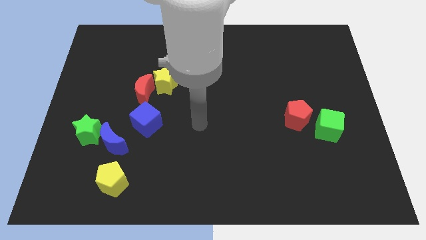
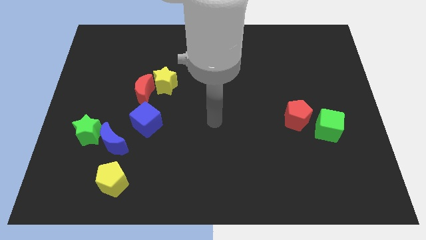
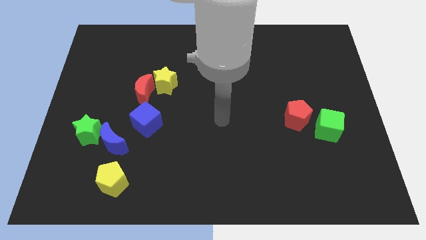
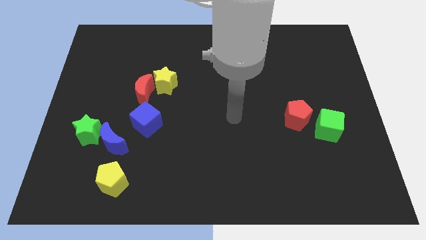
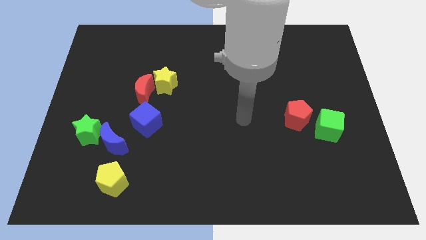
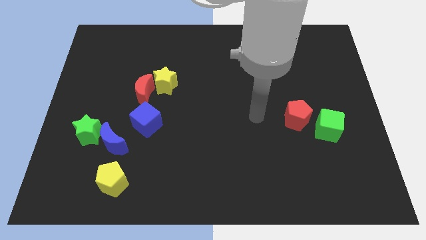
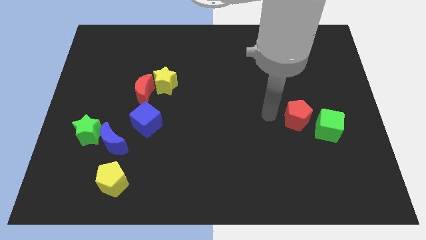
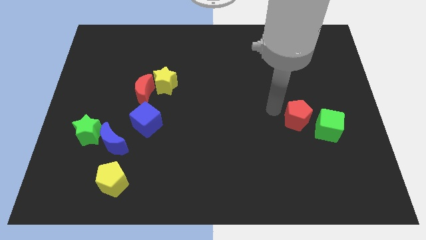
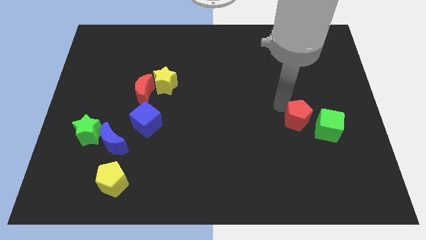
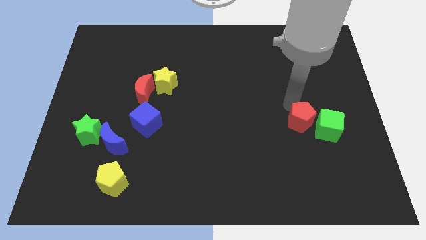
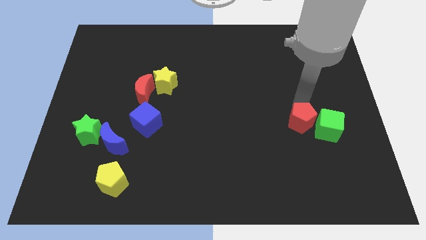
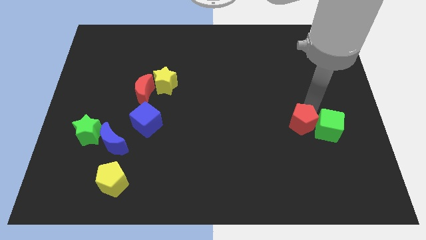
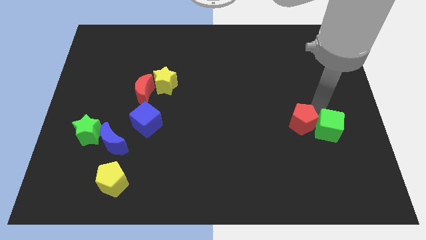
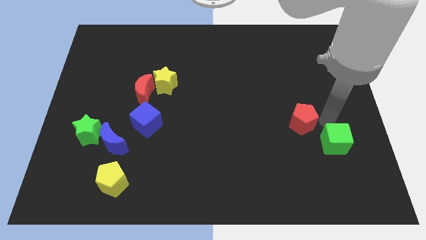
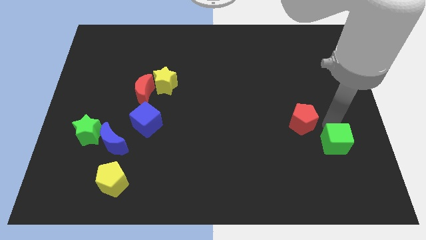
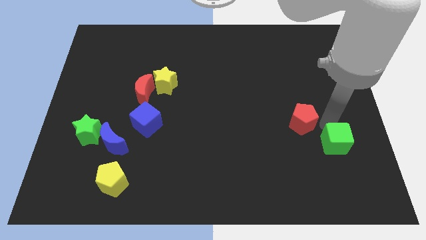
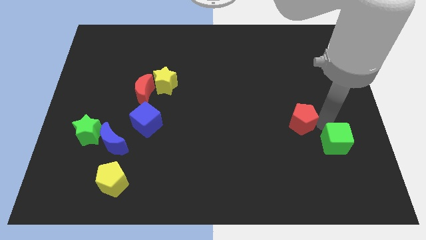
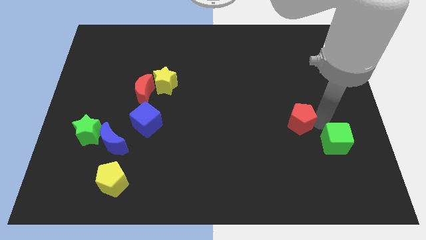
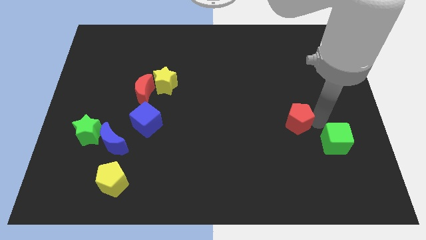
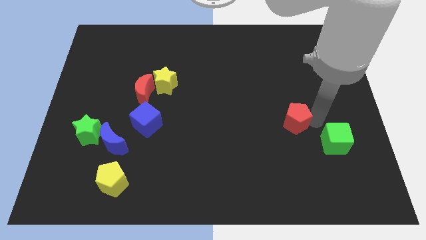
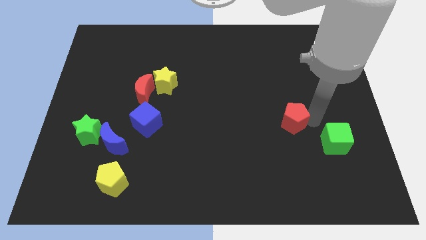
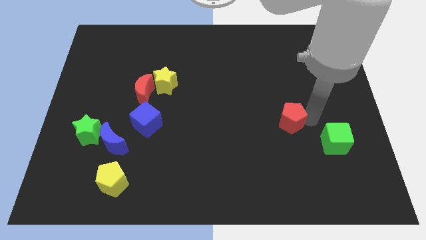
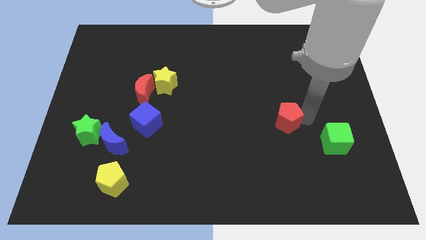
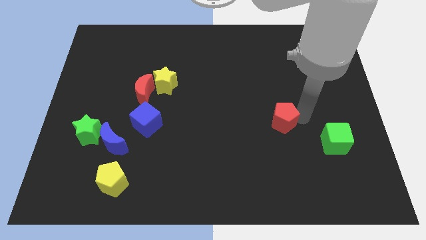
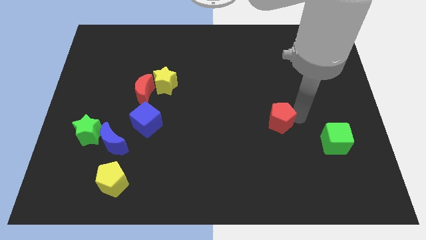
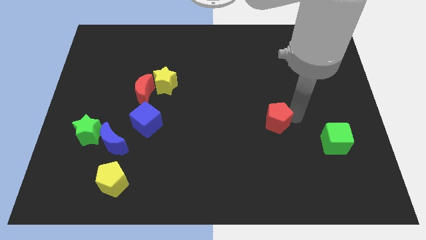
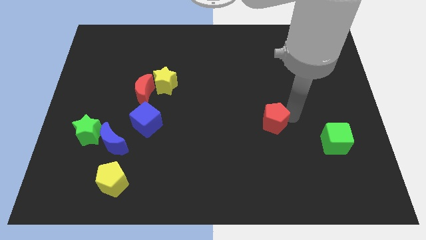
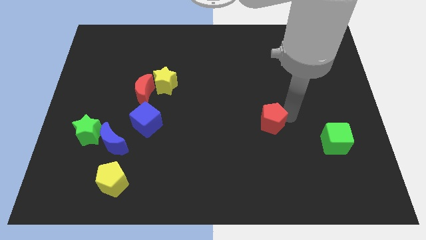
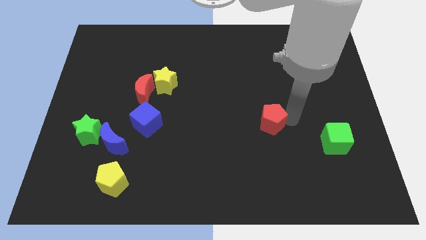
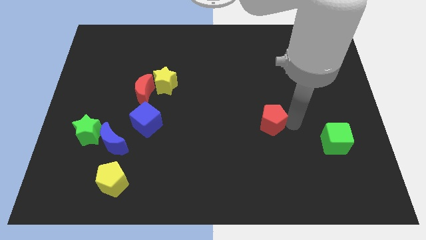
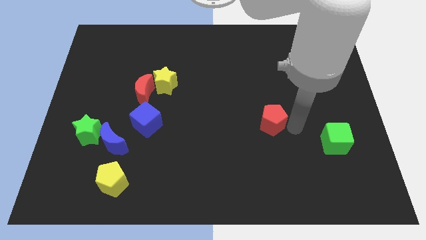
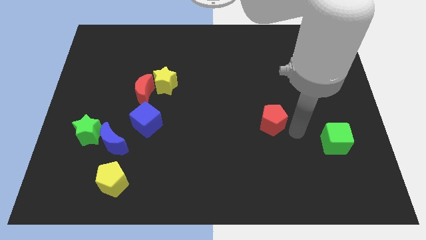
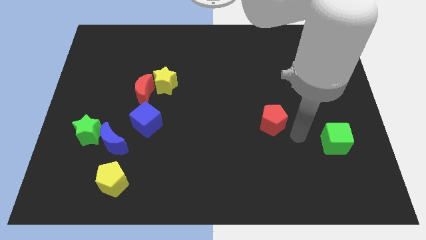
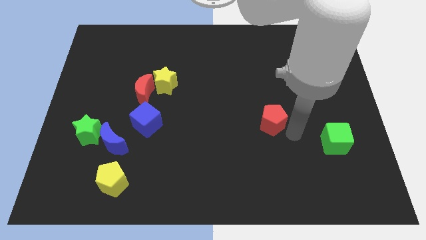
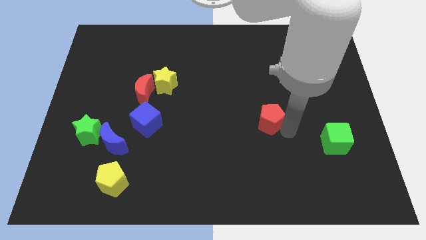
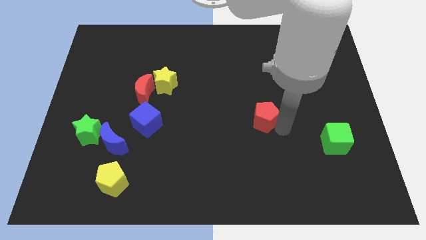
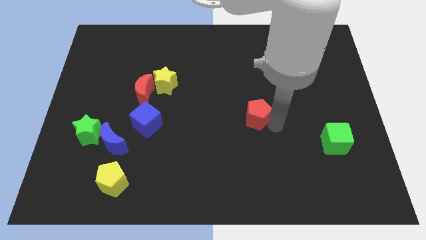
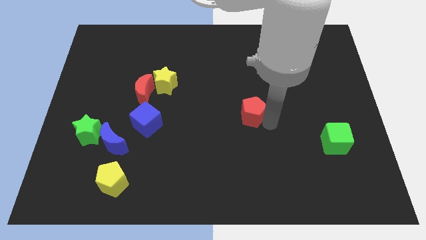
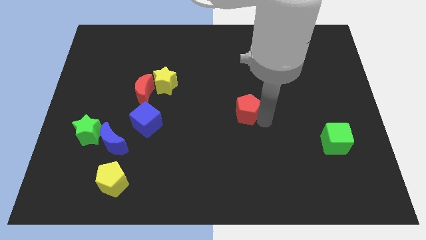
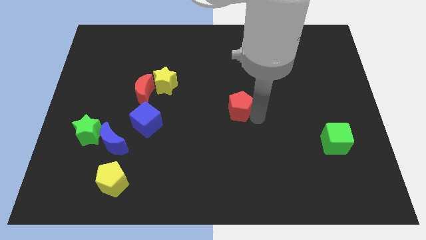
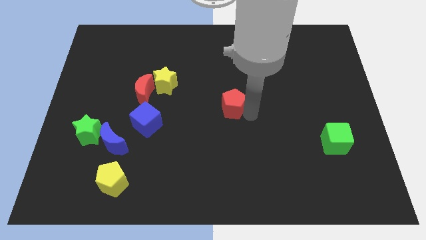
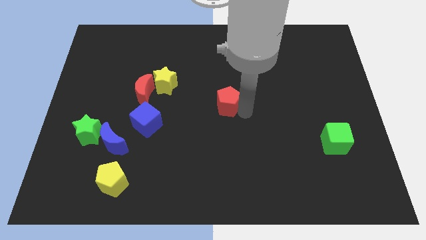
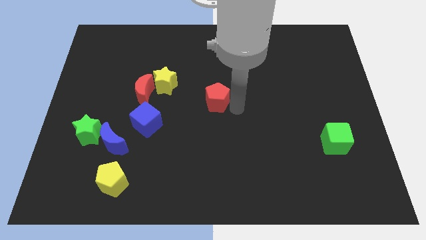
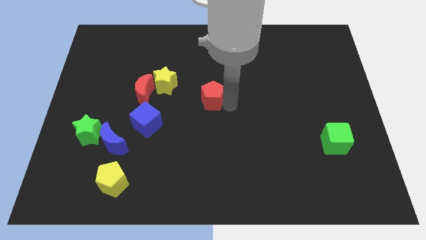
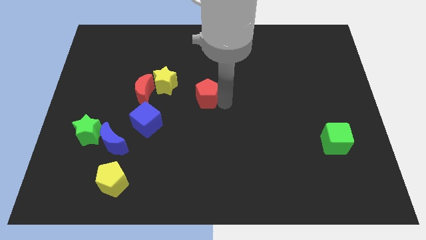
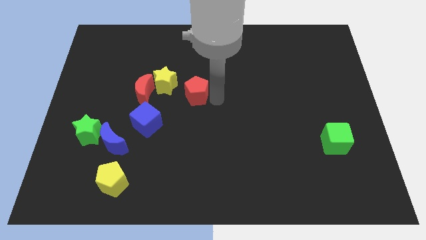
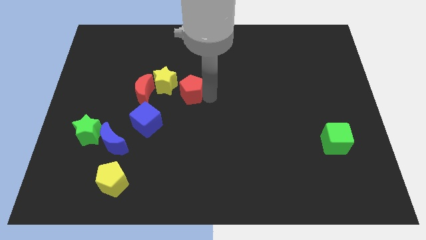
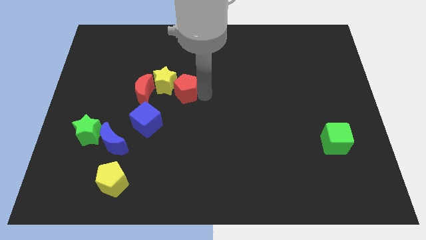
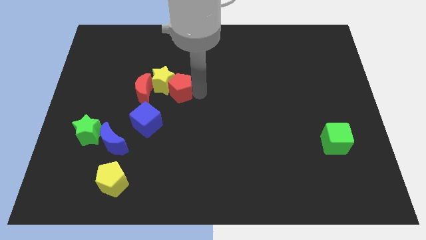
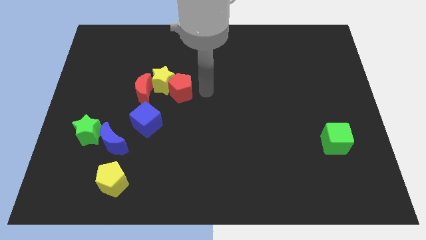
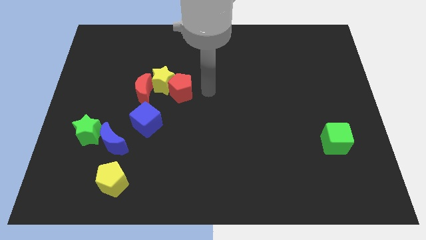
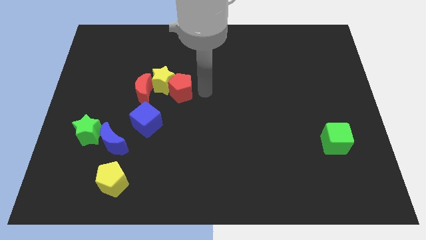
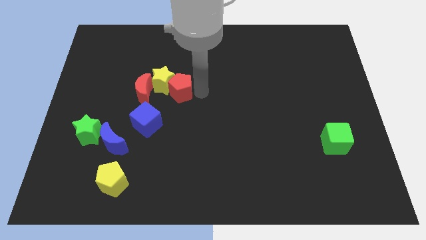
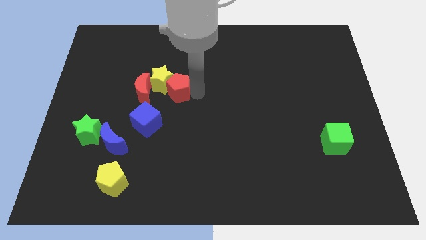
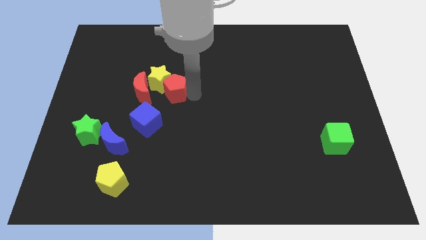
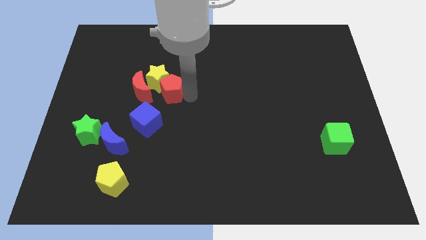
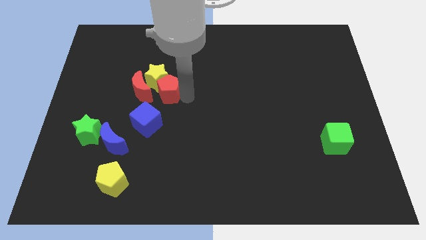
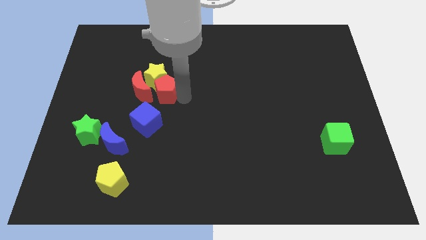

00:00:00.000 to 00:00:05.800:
put the red pentagon to the red moon

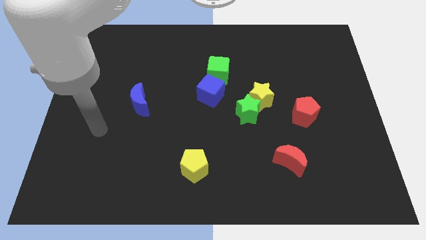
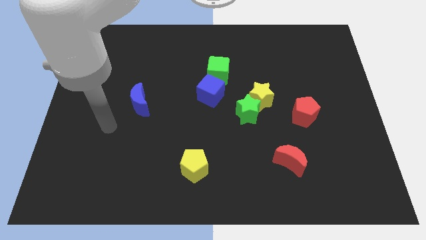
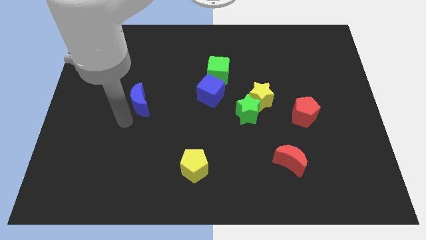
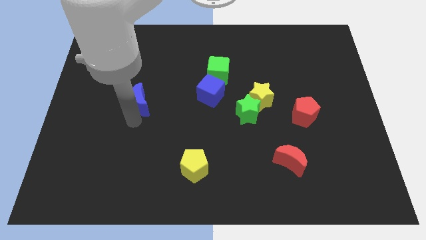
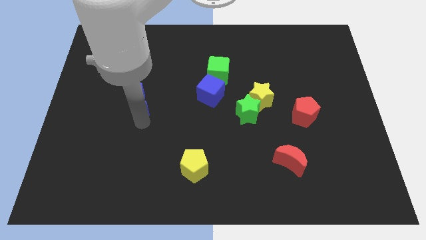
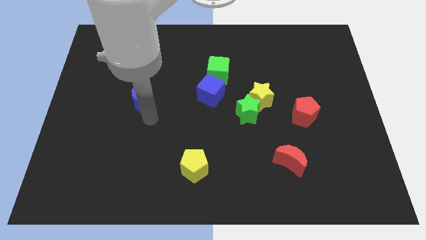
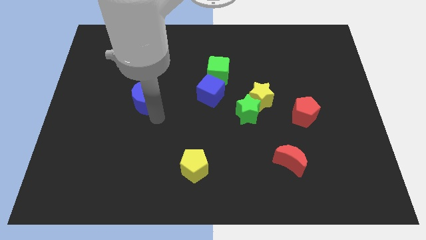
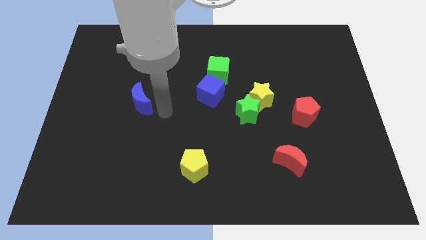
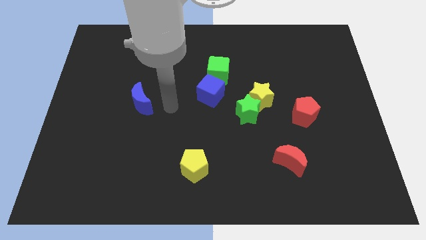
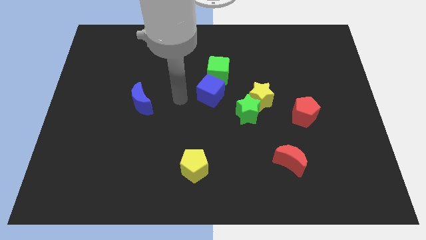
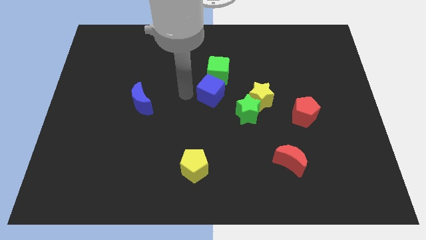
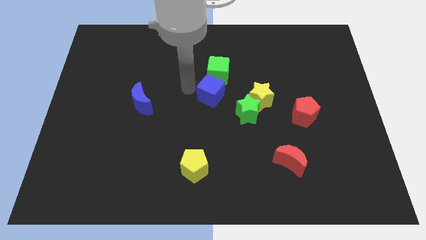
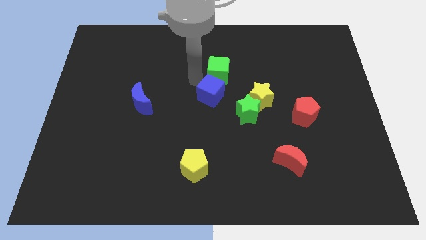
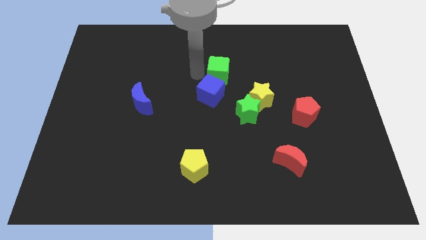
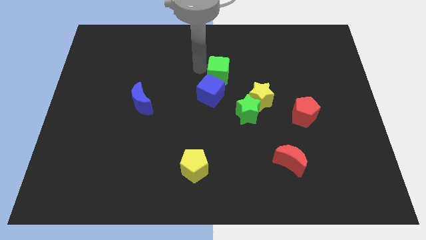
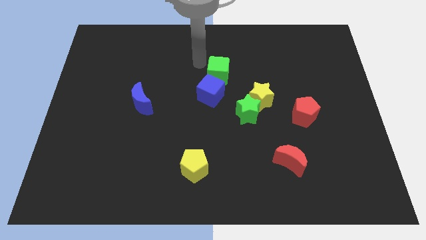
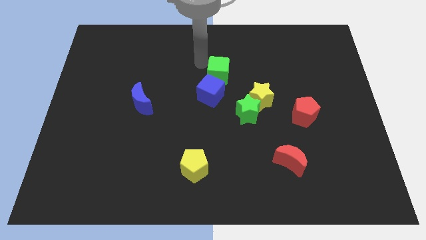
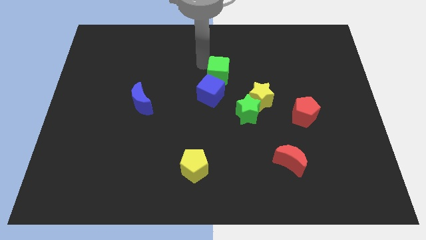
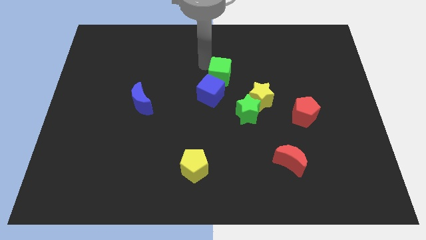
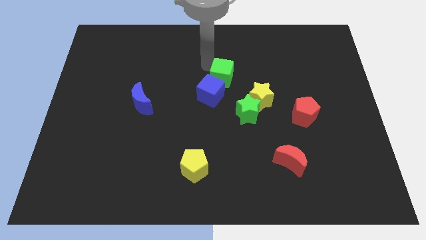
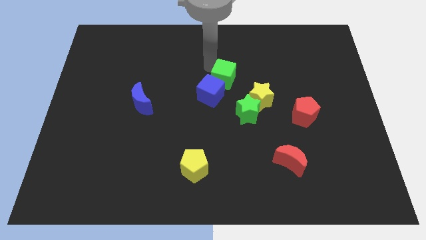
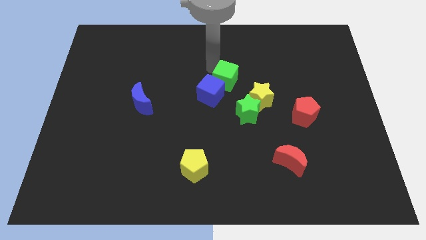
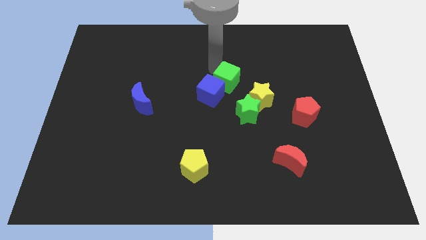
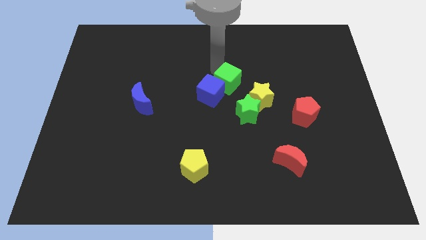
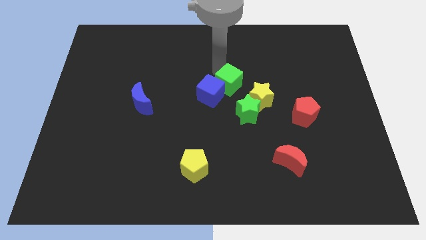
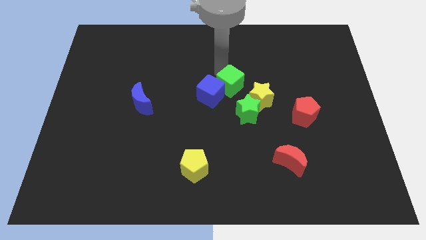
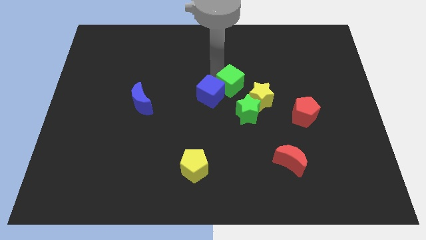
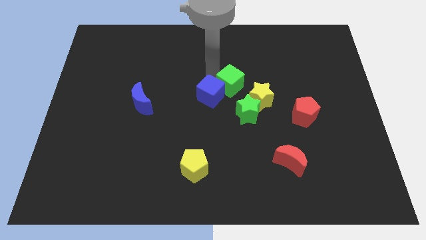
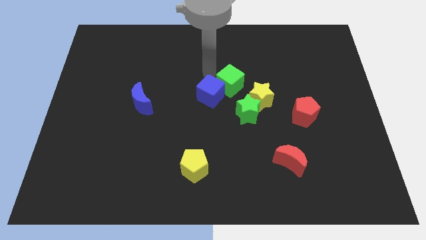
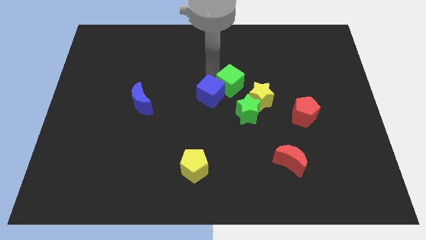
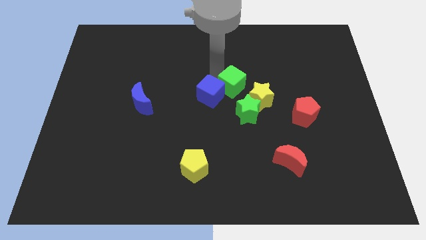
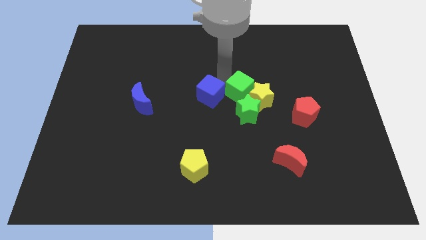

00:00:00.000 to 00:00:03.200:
move the green cube towards the yellow star
